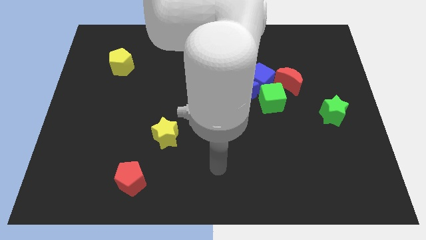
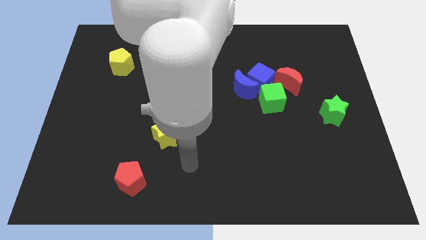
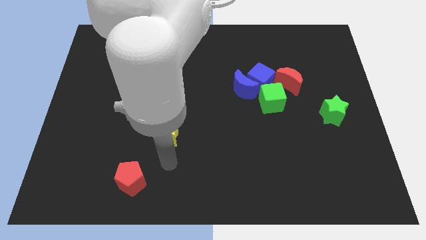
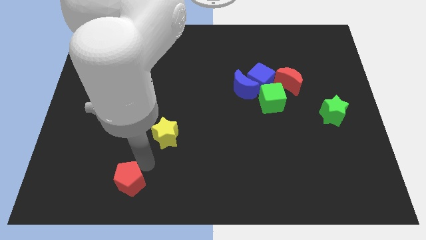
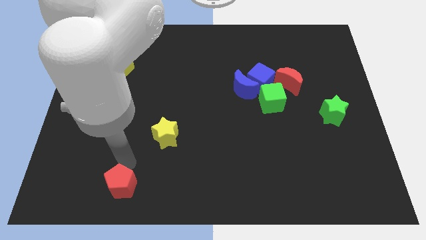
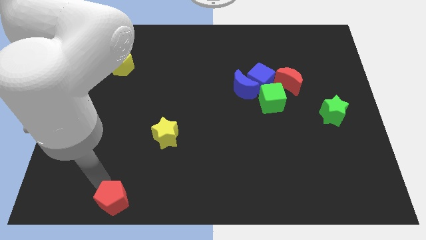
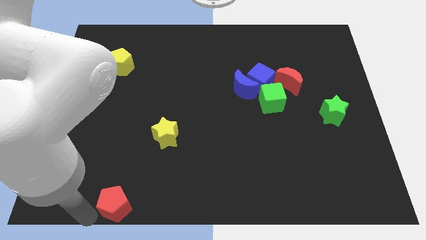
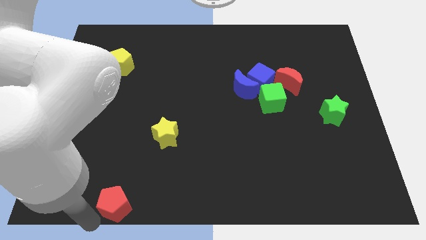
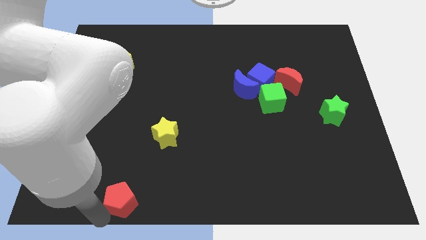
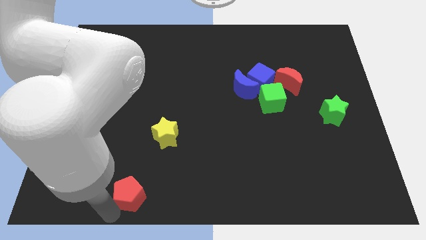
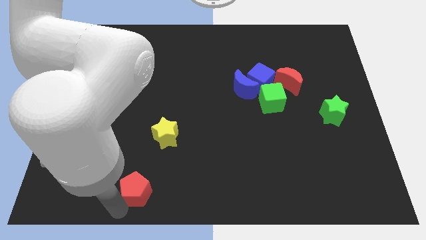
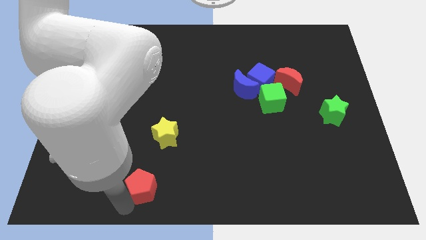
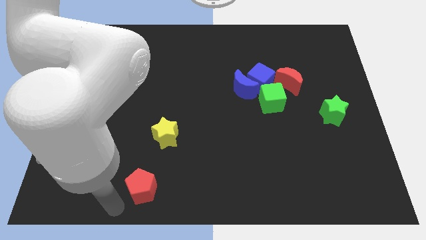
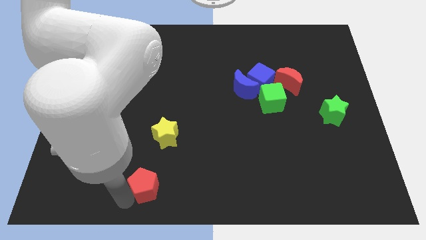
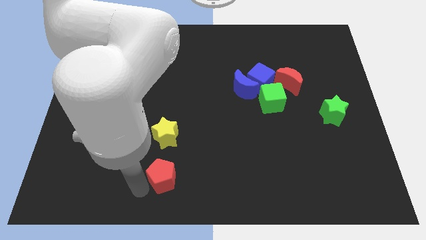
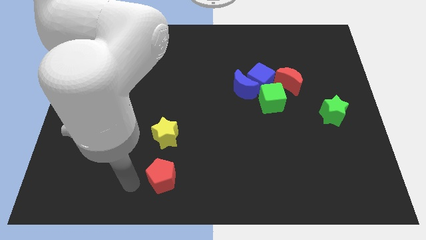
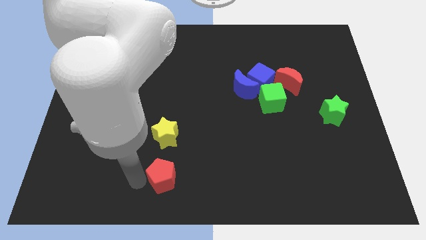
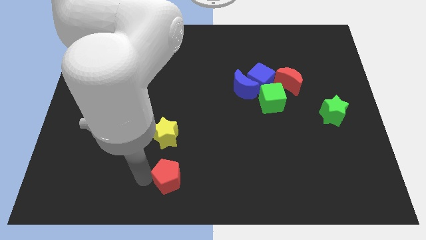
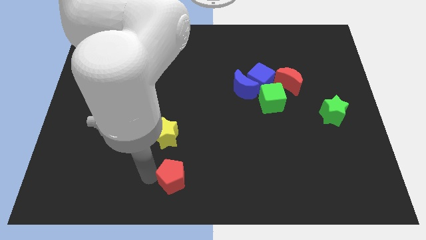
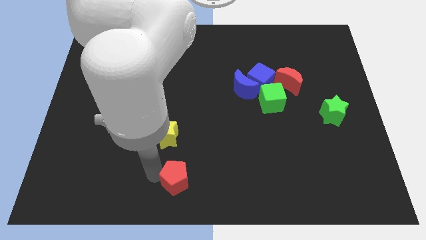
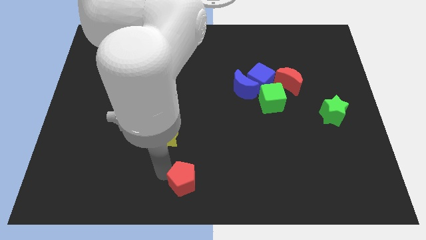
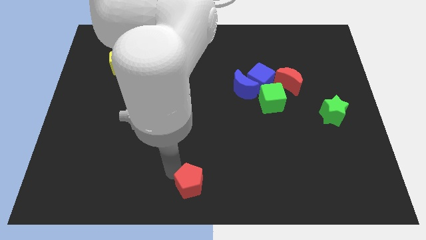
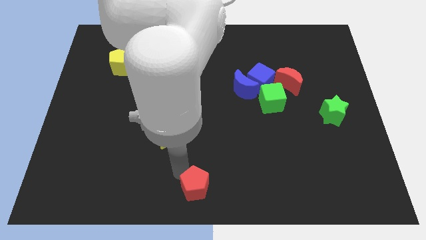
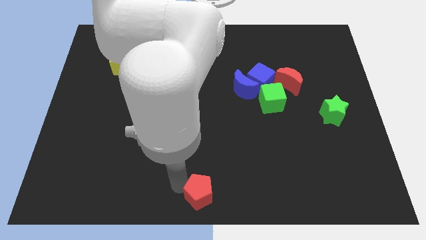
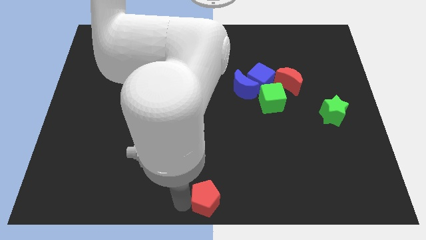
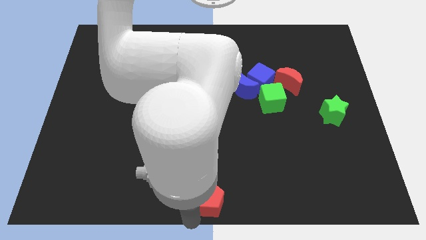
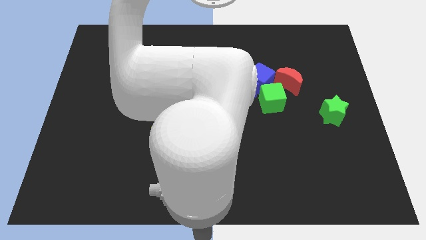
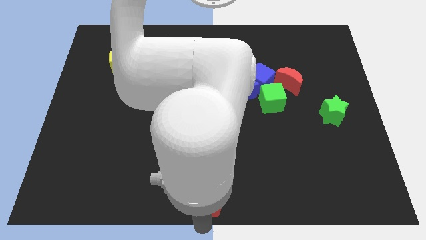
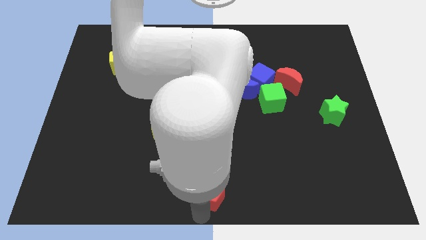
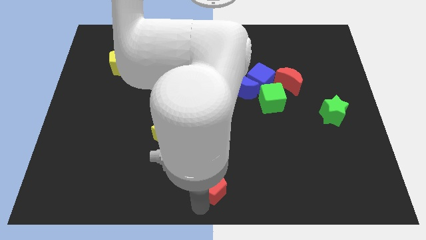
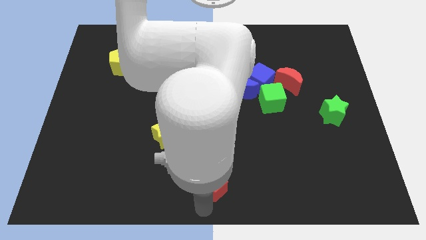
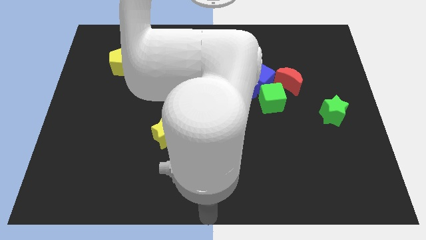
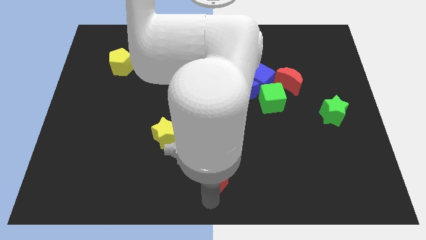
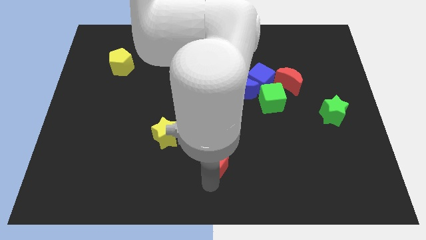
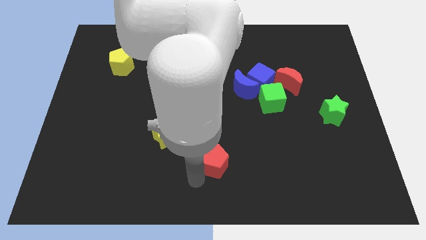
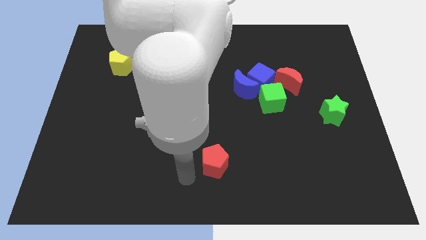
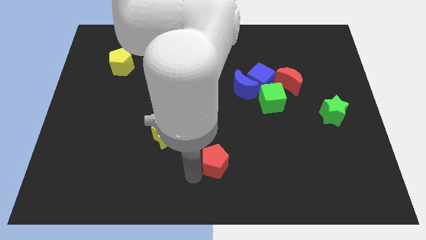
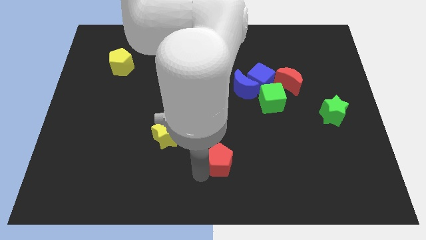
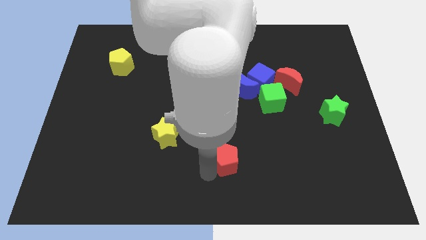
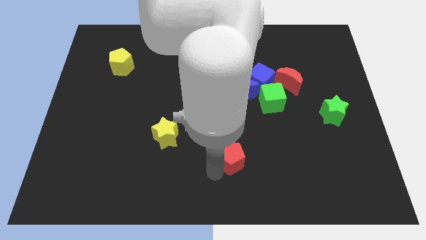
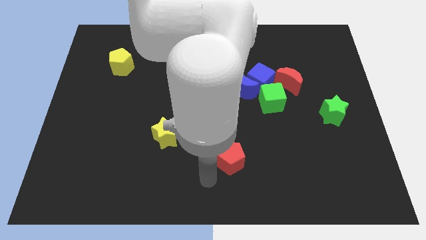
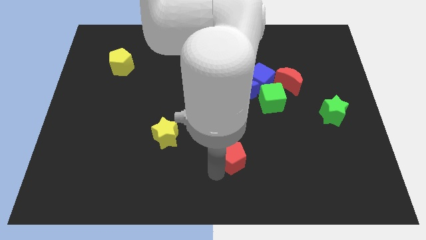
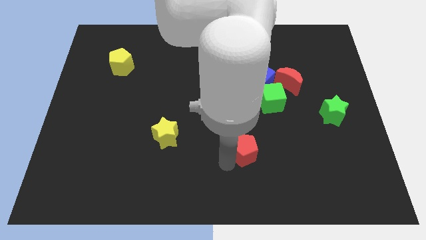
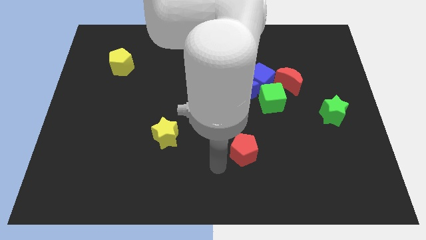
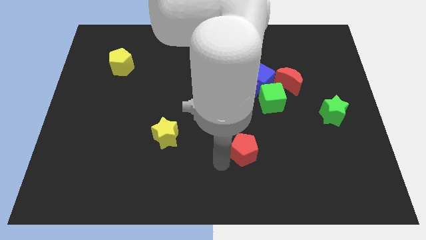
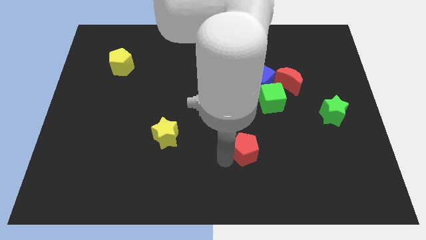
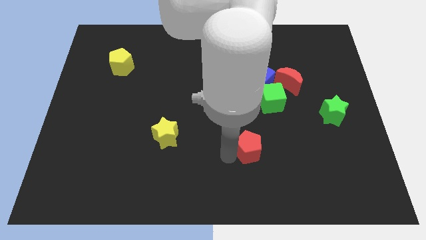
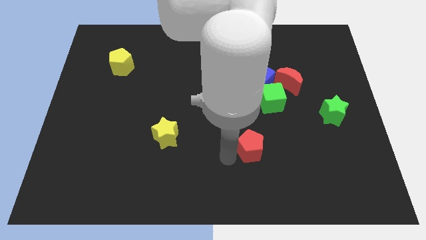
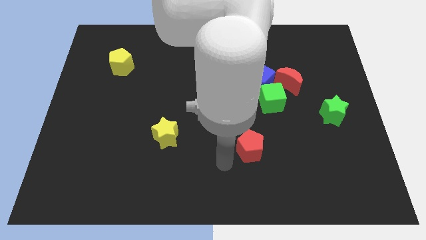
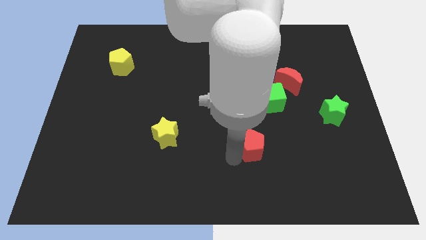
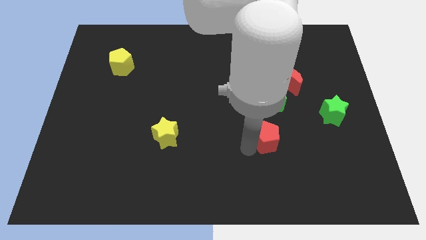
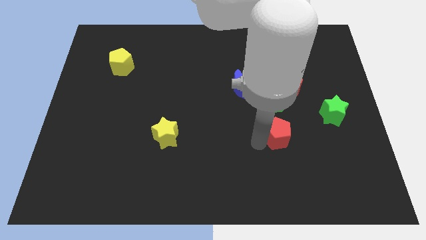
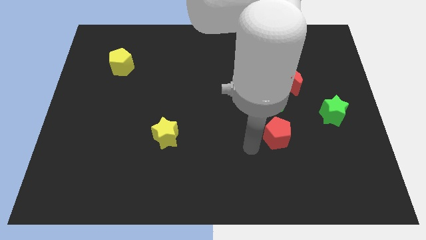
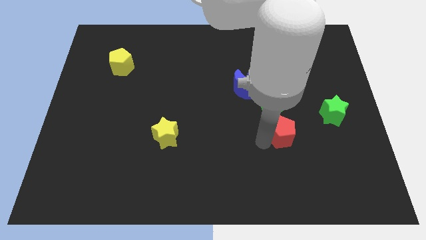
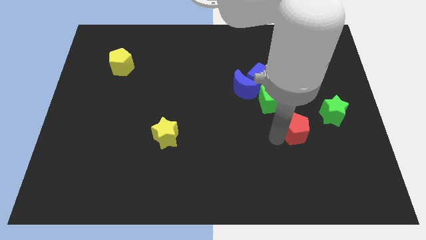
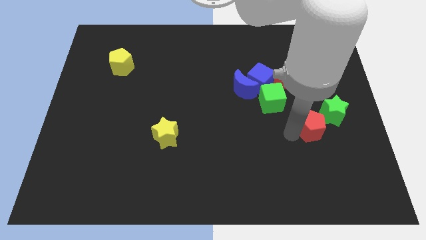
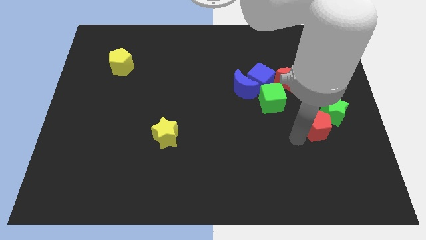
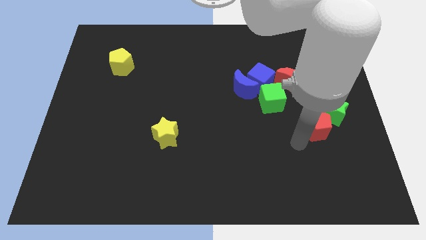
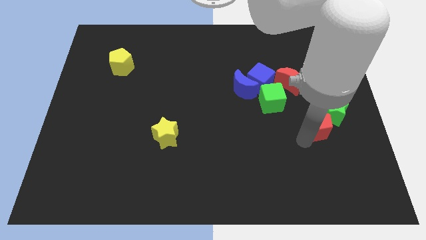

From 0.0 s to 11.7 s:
move the red pentagon next to the green star

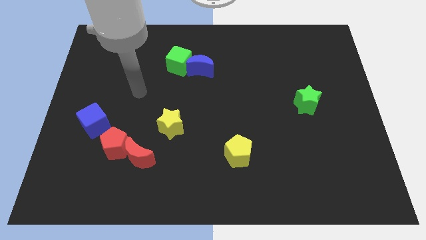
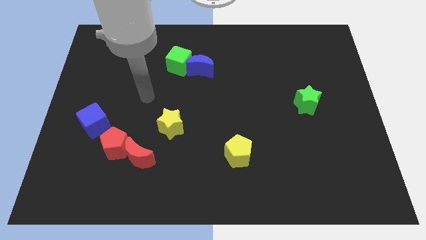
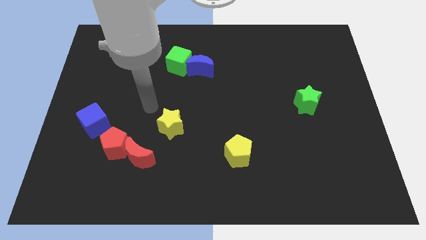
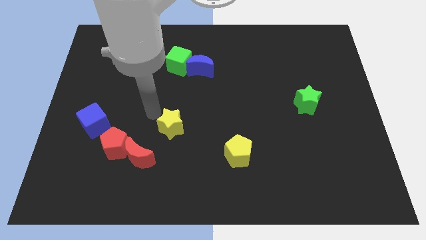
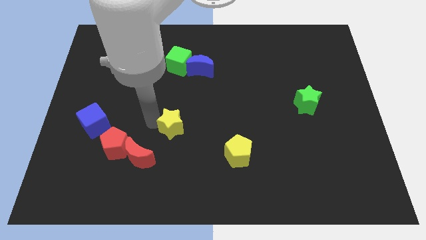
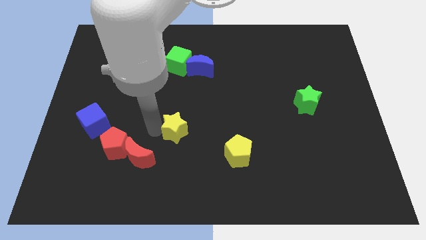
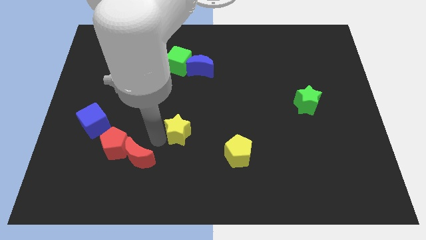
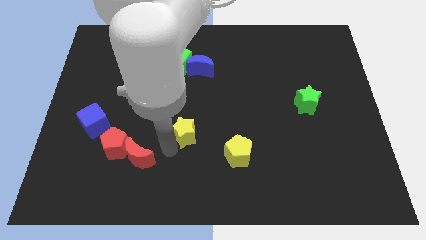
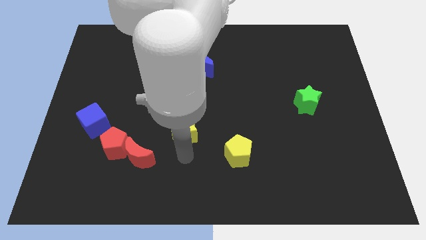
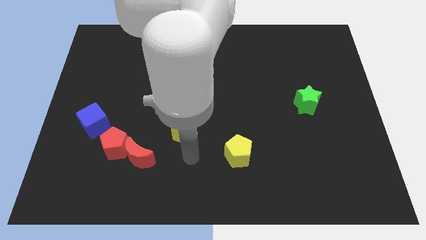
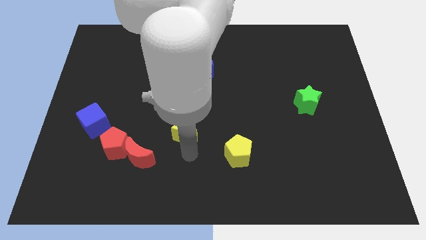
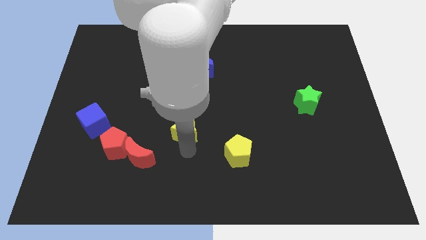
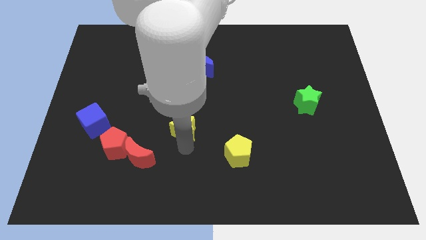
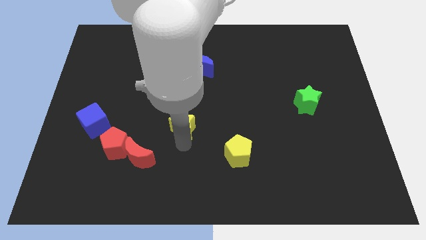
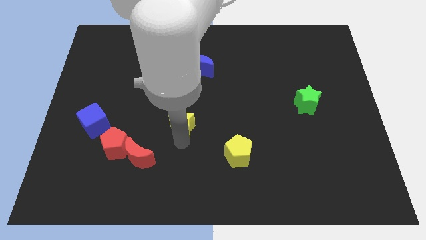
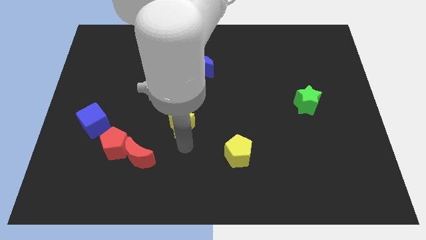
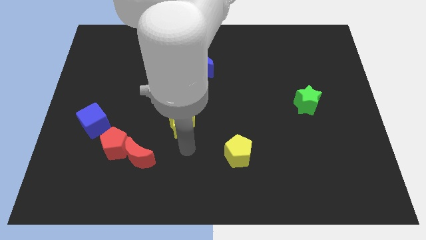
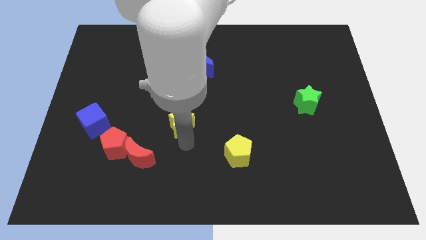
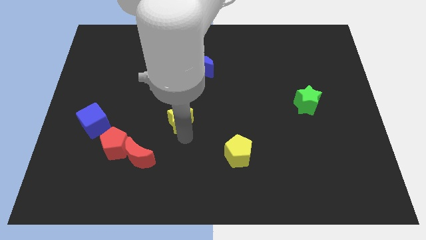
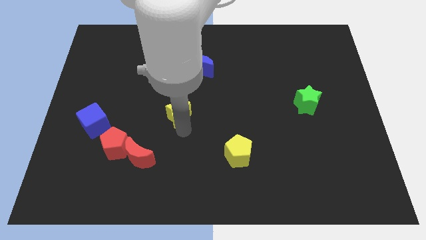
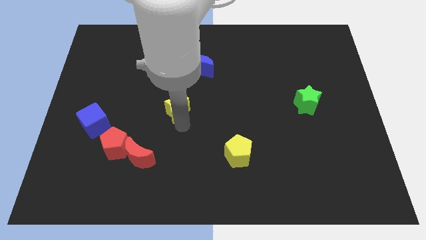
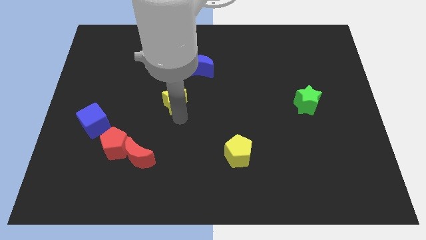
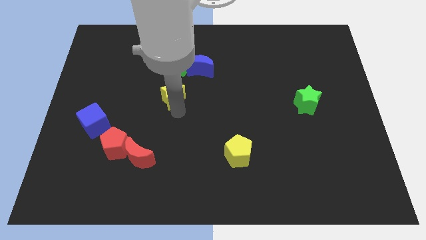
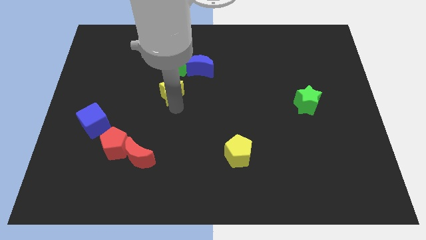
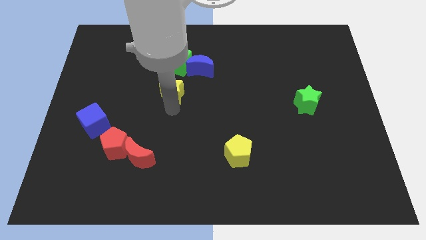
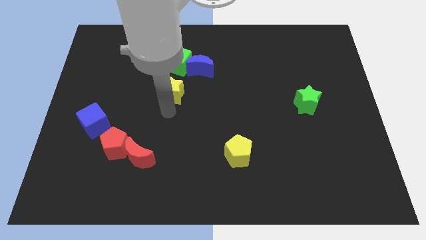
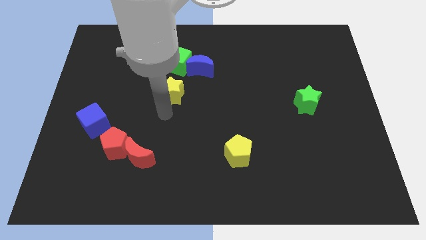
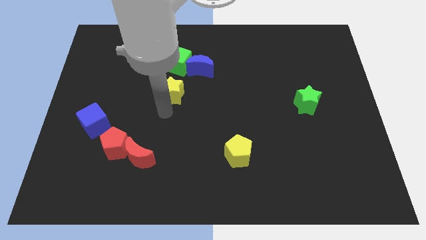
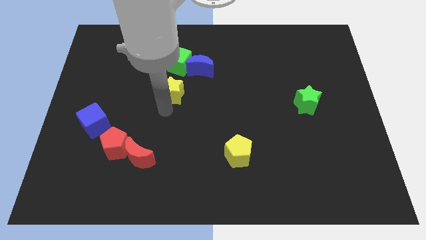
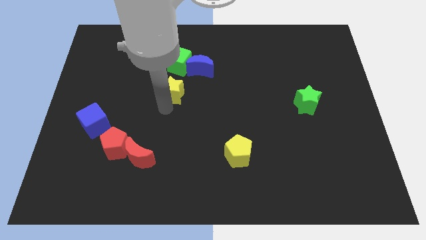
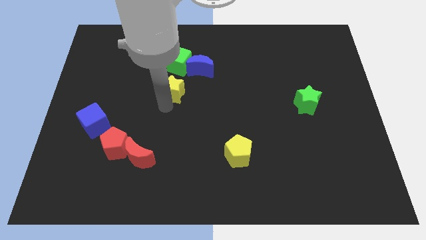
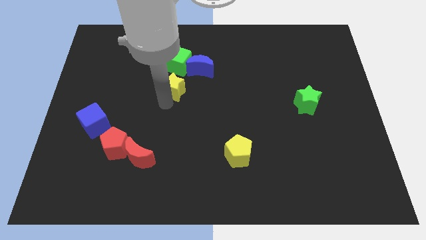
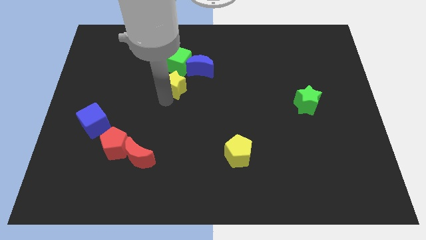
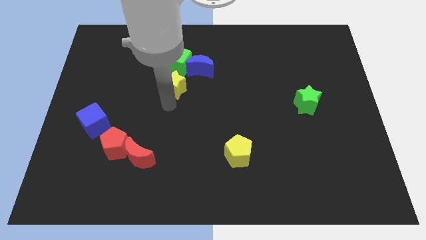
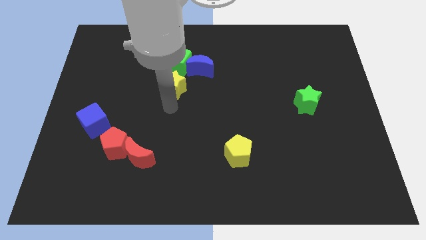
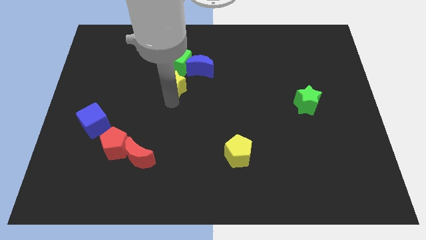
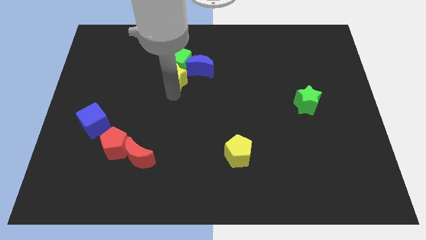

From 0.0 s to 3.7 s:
push the yellow star close to the green cube
